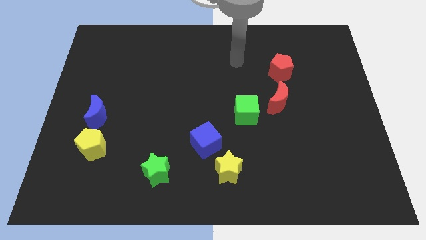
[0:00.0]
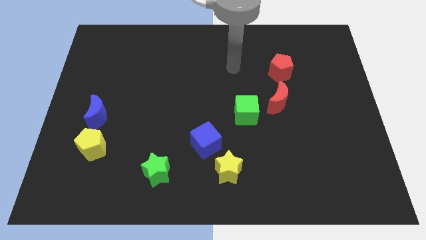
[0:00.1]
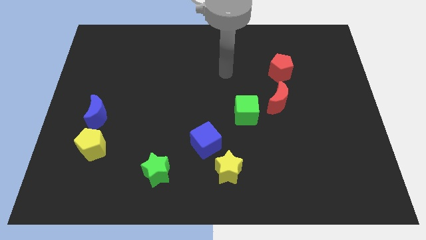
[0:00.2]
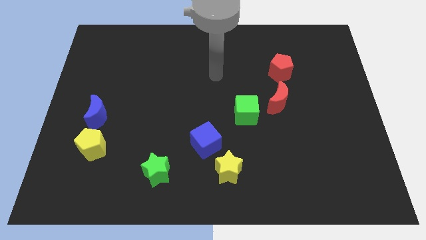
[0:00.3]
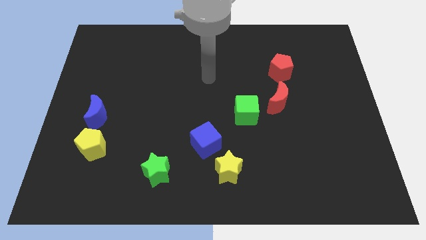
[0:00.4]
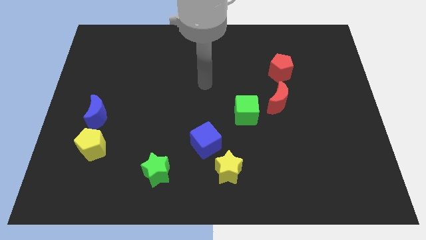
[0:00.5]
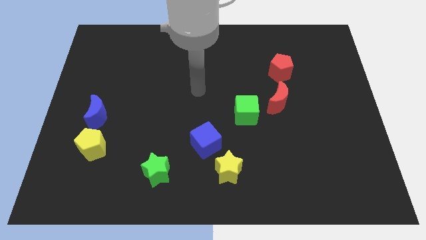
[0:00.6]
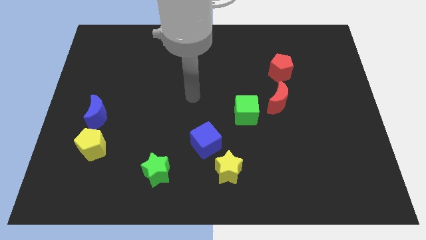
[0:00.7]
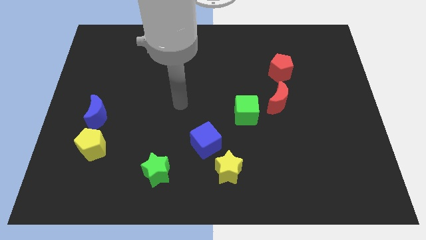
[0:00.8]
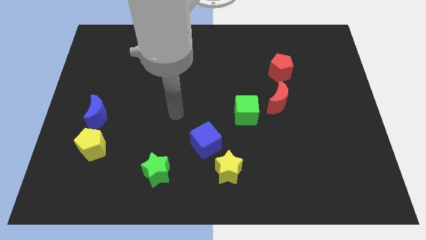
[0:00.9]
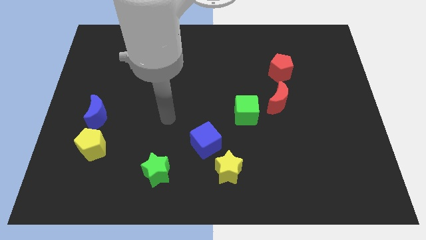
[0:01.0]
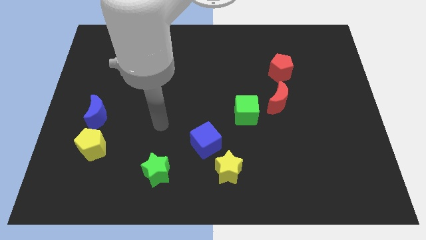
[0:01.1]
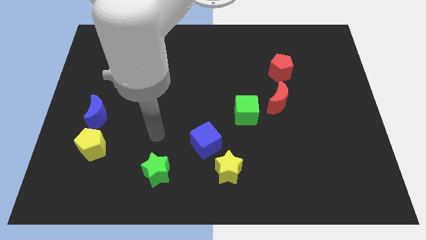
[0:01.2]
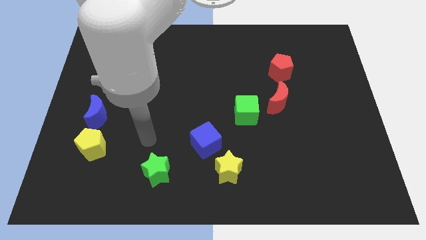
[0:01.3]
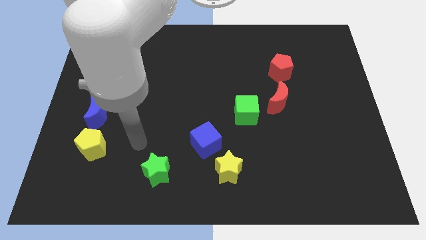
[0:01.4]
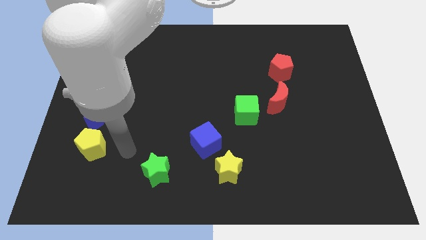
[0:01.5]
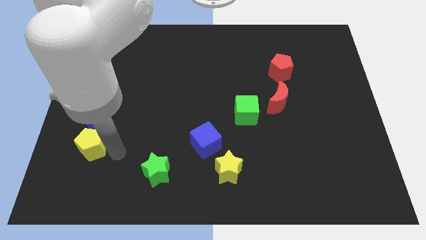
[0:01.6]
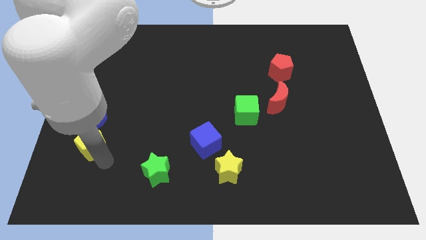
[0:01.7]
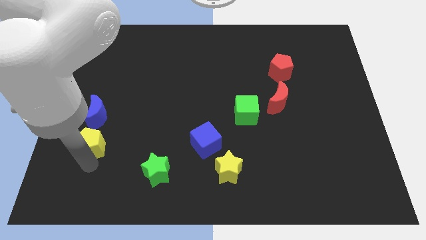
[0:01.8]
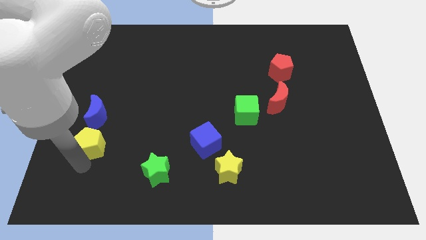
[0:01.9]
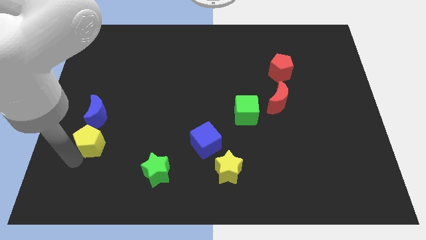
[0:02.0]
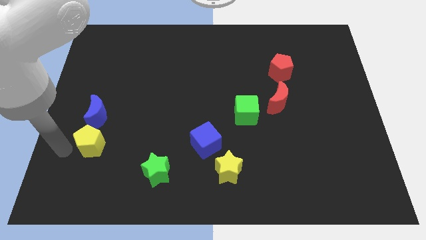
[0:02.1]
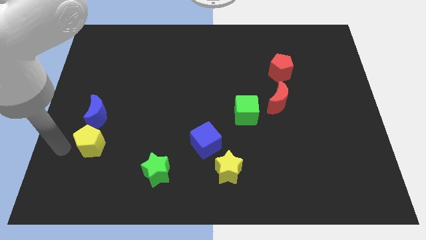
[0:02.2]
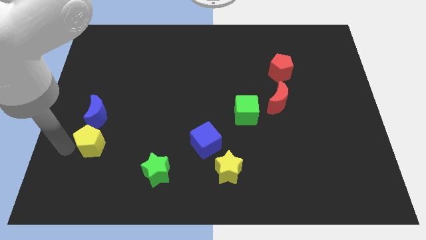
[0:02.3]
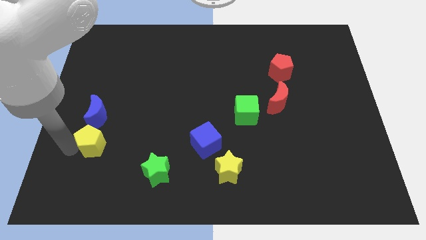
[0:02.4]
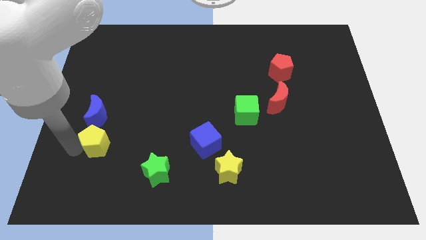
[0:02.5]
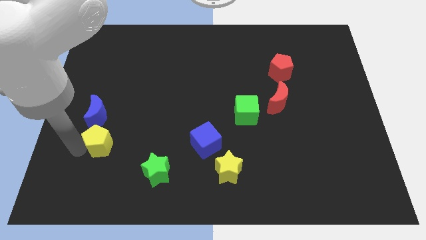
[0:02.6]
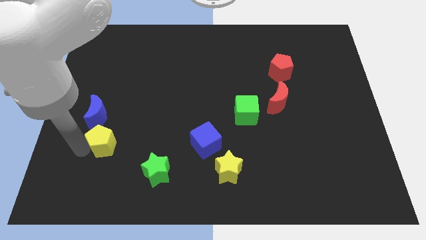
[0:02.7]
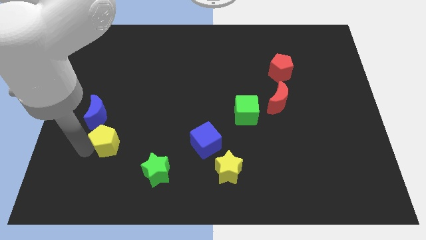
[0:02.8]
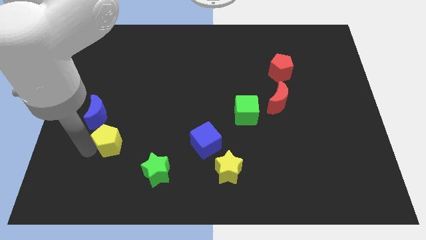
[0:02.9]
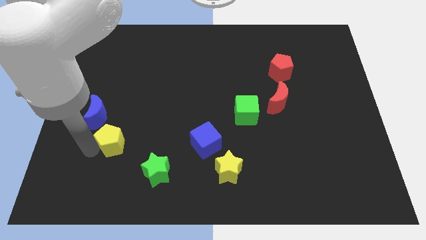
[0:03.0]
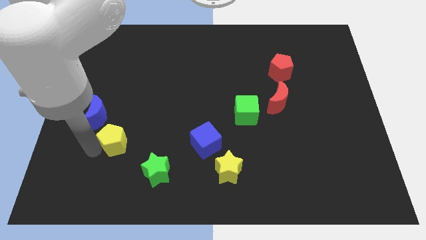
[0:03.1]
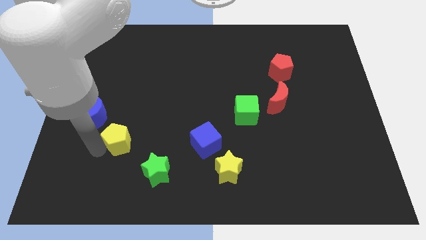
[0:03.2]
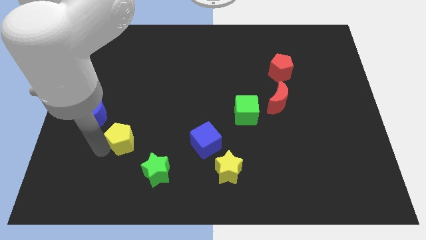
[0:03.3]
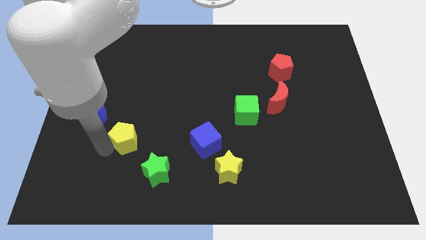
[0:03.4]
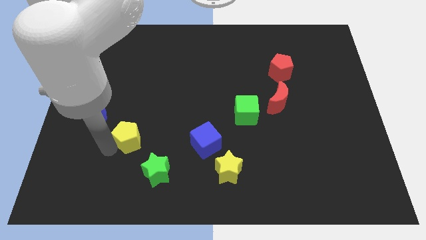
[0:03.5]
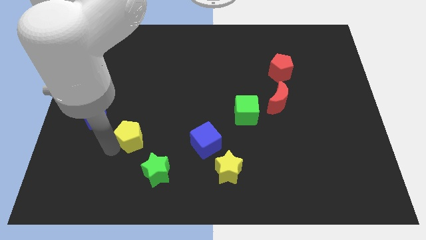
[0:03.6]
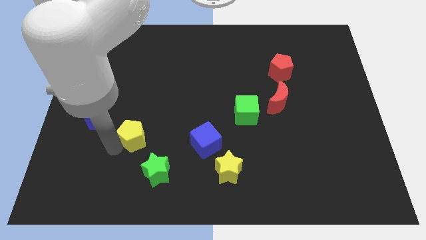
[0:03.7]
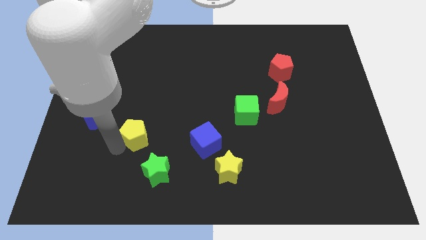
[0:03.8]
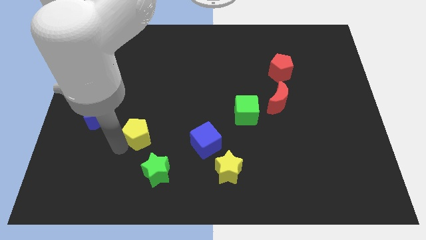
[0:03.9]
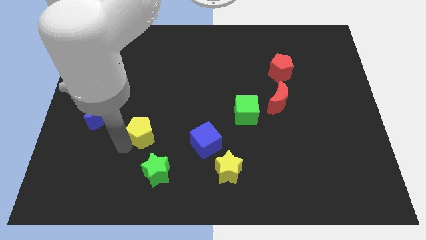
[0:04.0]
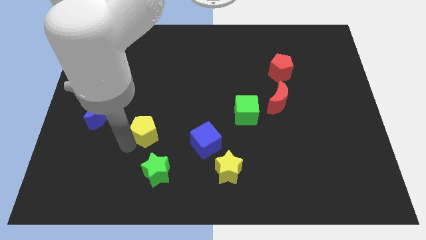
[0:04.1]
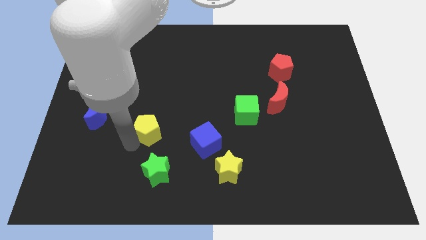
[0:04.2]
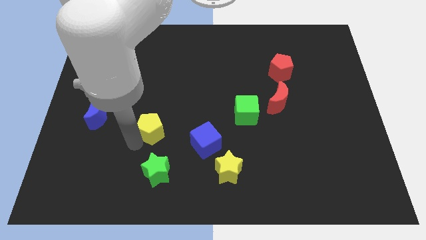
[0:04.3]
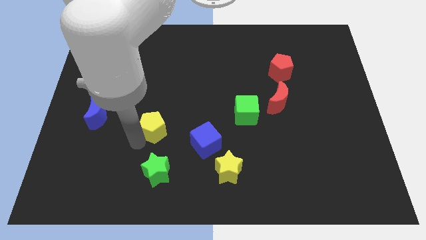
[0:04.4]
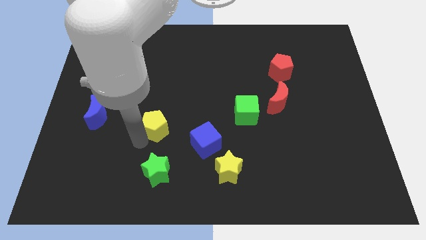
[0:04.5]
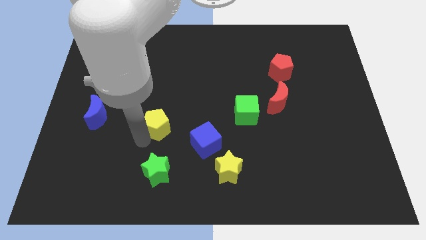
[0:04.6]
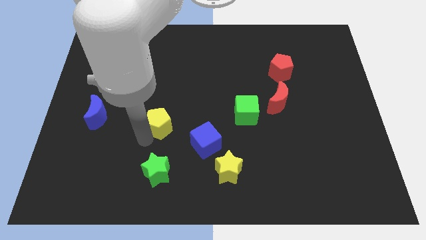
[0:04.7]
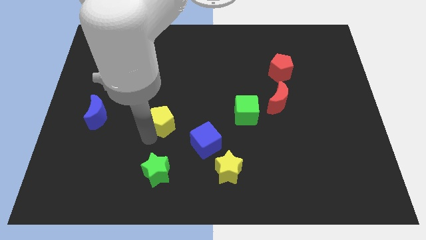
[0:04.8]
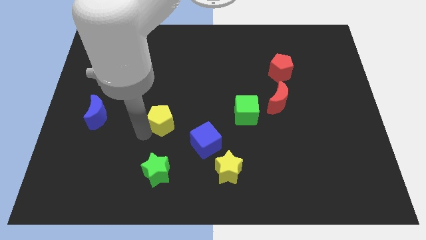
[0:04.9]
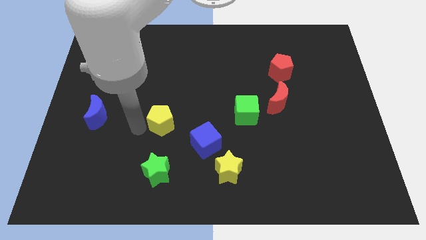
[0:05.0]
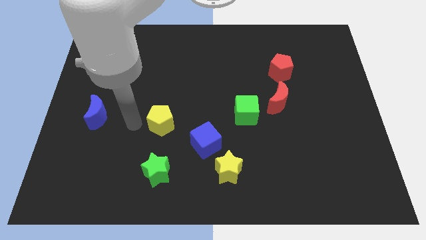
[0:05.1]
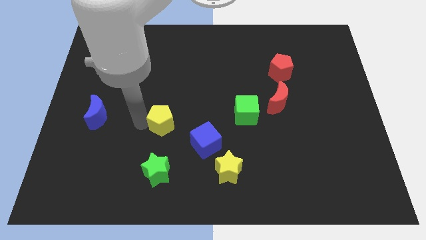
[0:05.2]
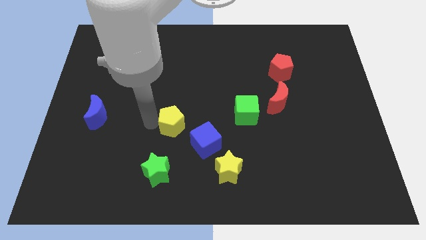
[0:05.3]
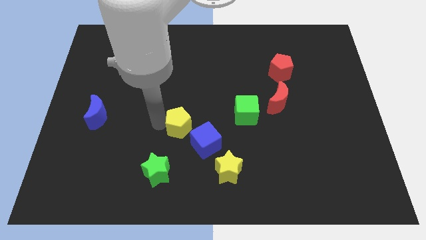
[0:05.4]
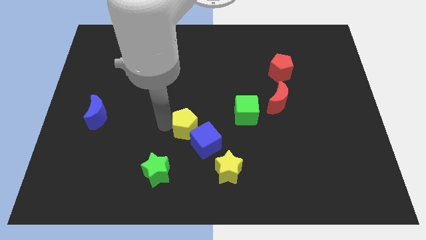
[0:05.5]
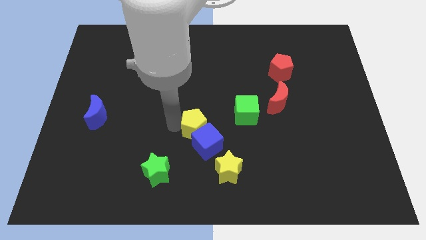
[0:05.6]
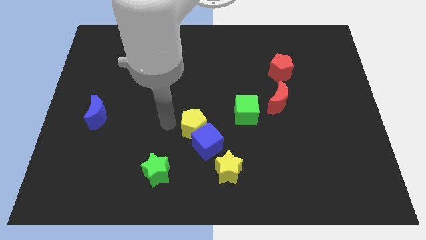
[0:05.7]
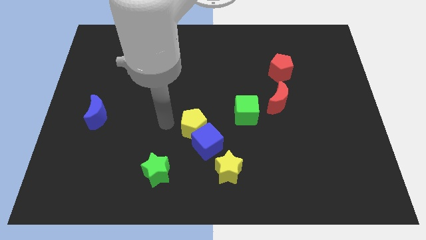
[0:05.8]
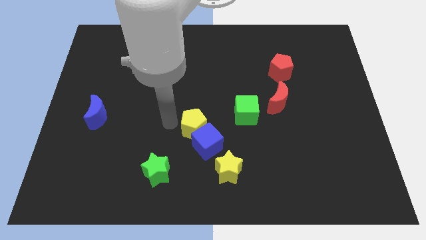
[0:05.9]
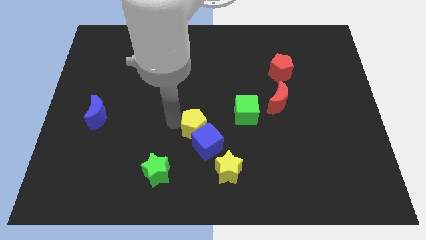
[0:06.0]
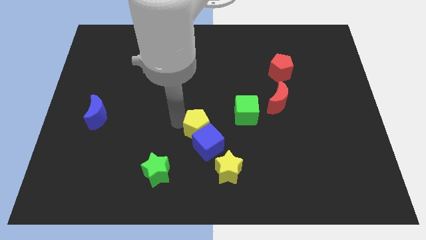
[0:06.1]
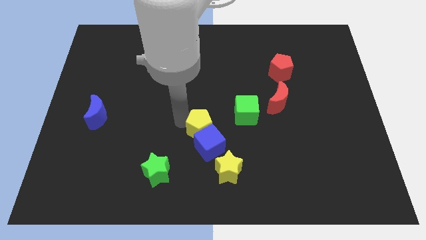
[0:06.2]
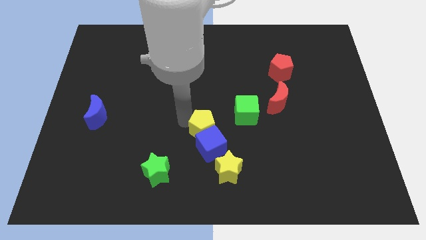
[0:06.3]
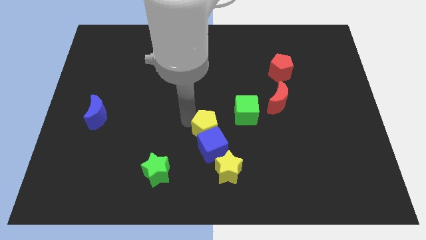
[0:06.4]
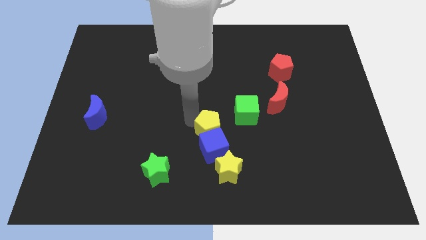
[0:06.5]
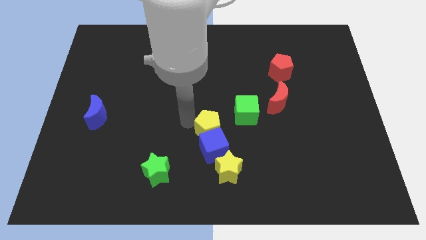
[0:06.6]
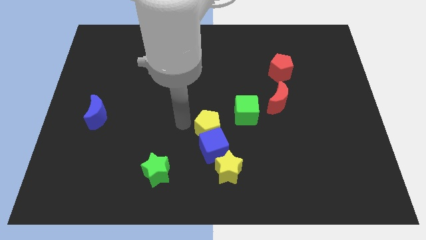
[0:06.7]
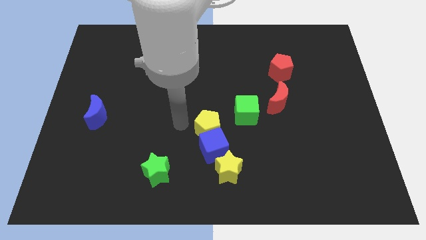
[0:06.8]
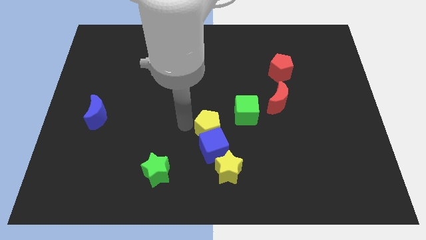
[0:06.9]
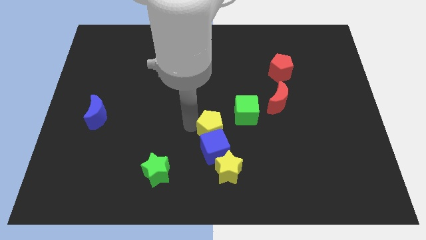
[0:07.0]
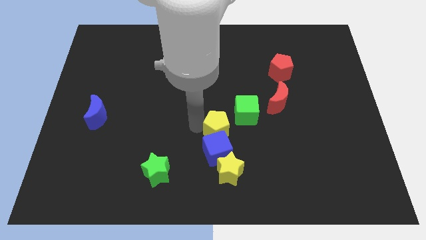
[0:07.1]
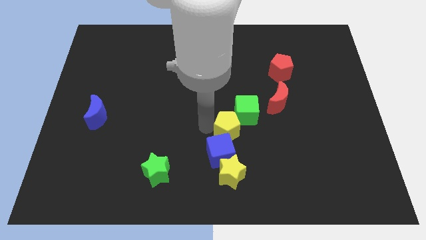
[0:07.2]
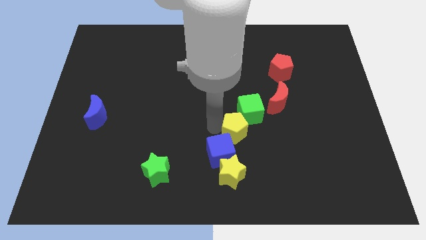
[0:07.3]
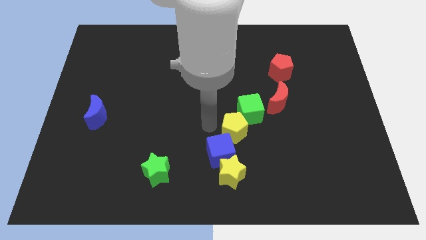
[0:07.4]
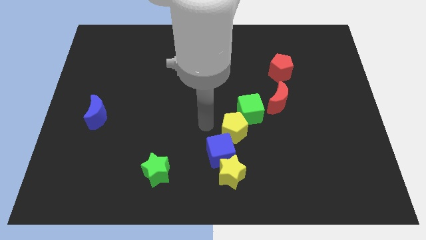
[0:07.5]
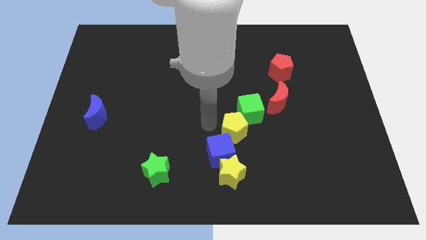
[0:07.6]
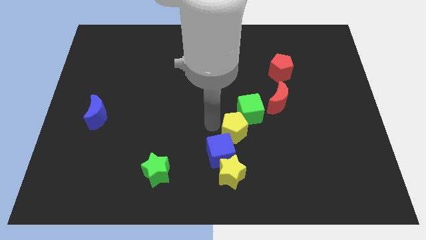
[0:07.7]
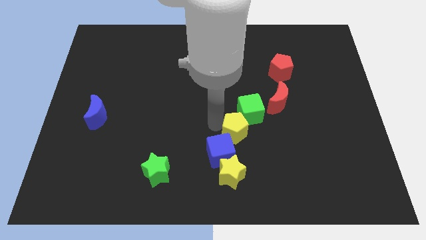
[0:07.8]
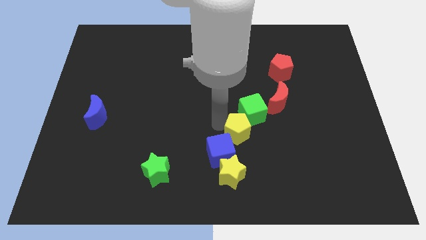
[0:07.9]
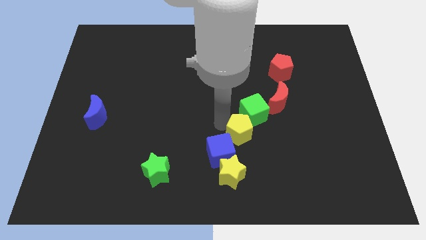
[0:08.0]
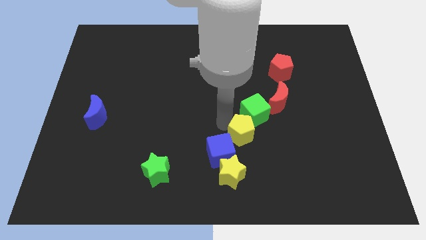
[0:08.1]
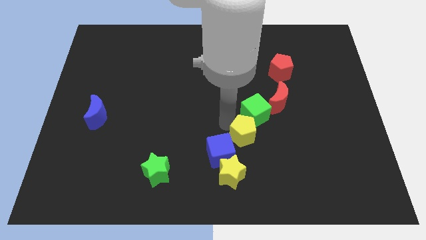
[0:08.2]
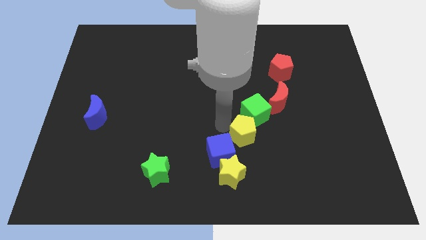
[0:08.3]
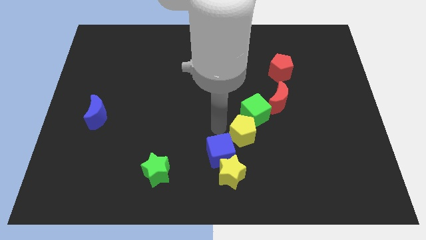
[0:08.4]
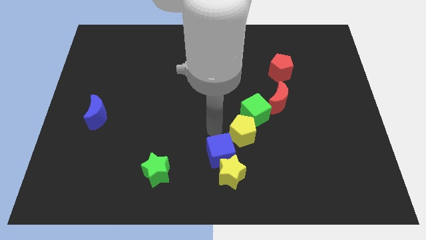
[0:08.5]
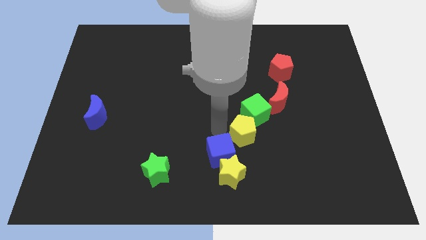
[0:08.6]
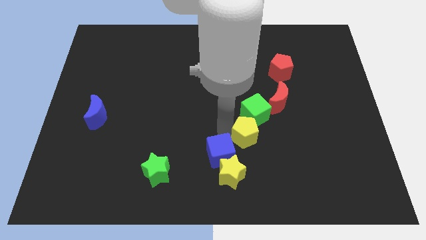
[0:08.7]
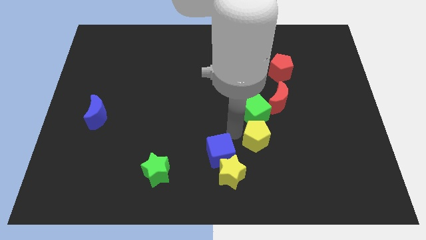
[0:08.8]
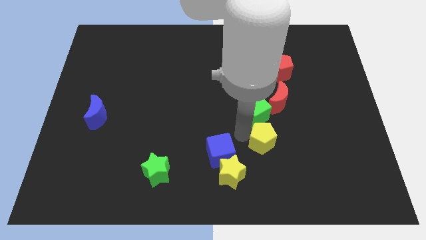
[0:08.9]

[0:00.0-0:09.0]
put the yellow pentagon below the red moon
